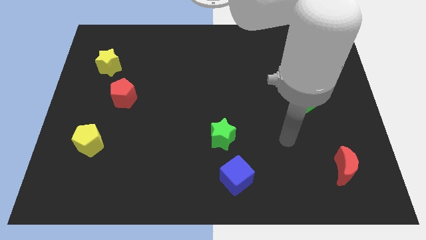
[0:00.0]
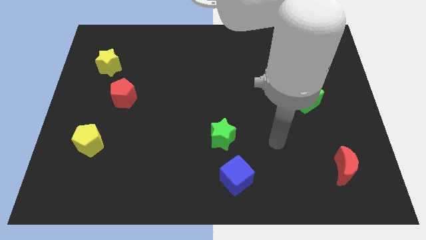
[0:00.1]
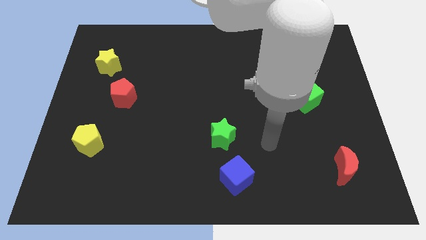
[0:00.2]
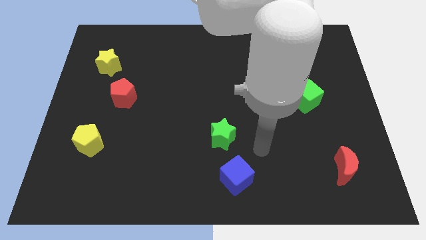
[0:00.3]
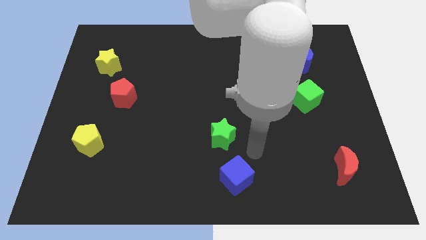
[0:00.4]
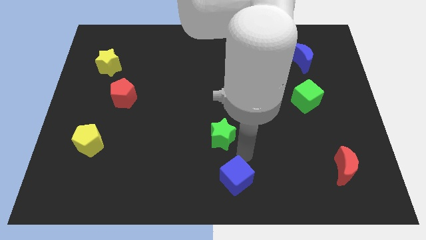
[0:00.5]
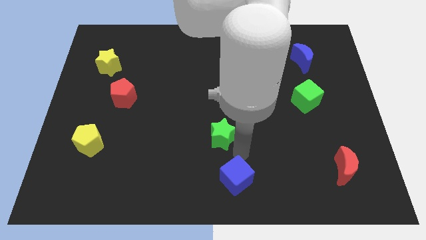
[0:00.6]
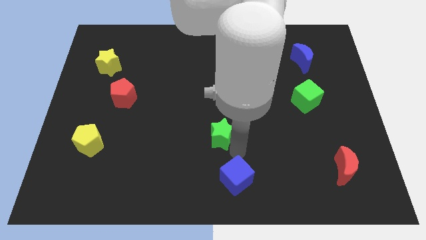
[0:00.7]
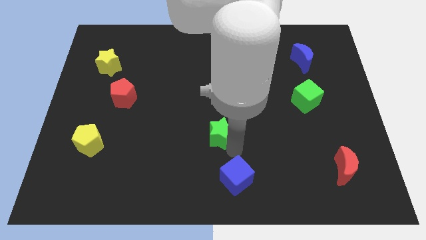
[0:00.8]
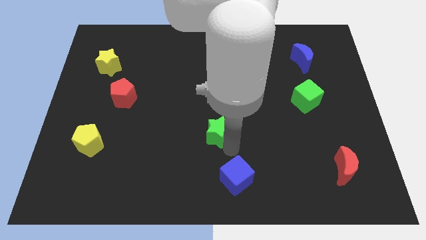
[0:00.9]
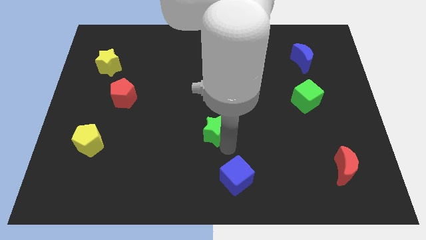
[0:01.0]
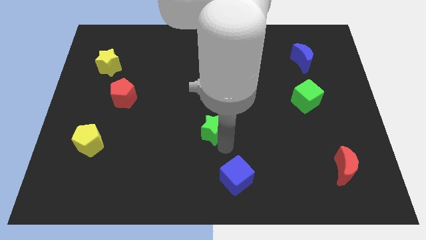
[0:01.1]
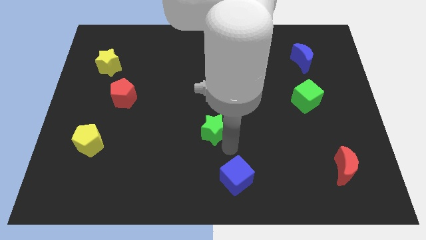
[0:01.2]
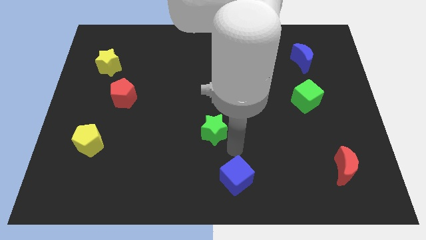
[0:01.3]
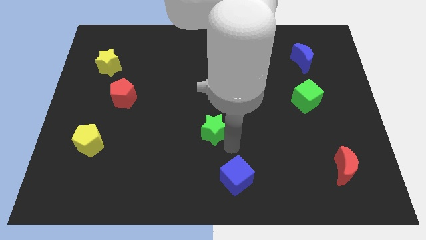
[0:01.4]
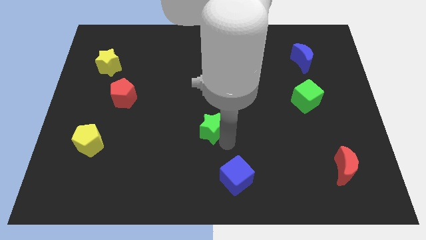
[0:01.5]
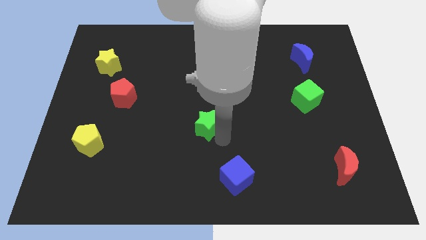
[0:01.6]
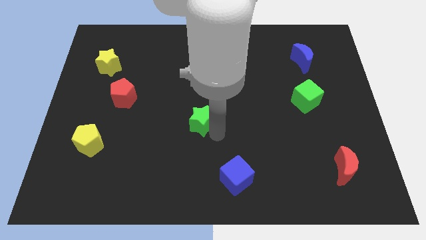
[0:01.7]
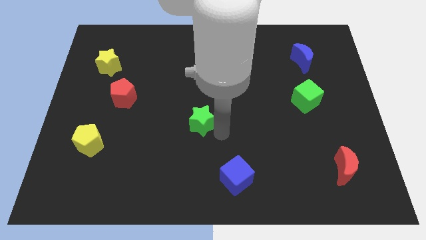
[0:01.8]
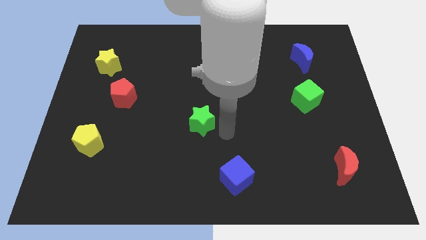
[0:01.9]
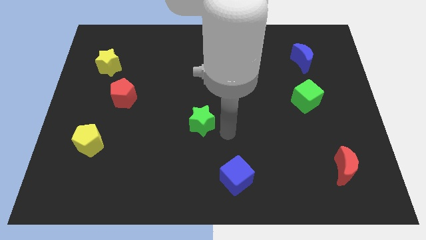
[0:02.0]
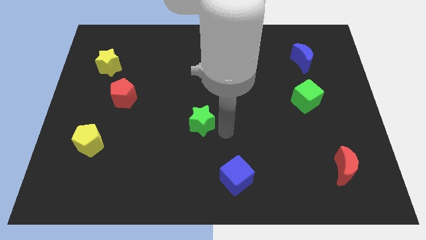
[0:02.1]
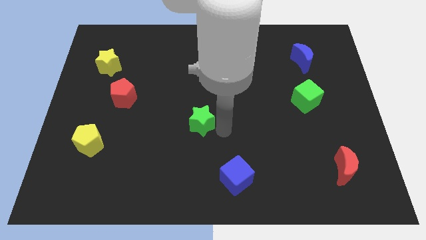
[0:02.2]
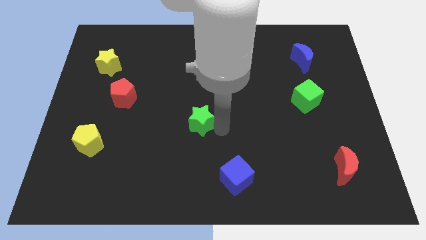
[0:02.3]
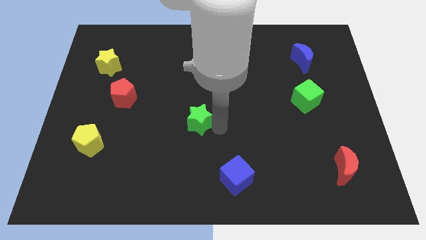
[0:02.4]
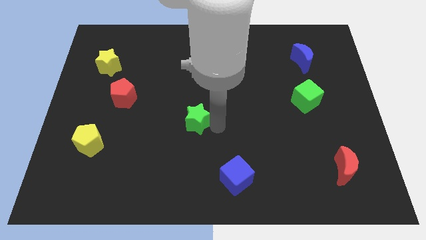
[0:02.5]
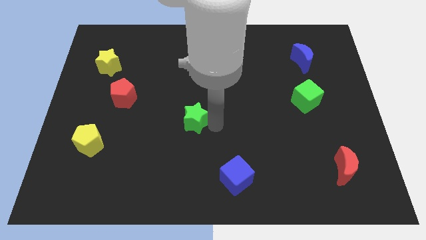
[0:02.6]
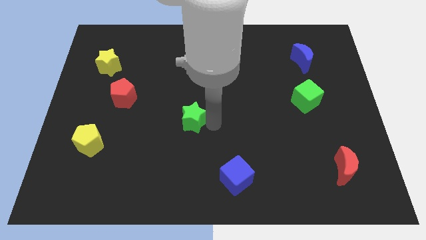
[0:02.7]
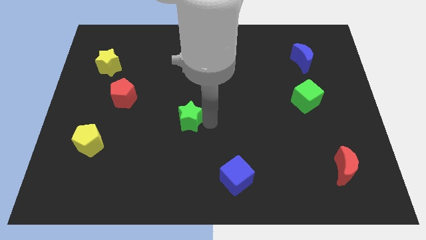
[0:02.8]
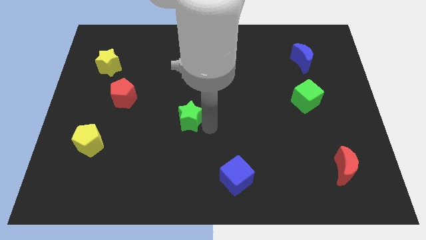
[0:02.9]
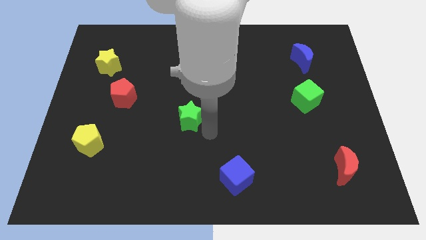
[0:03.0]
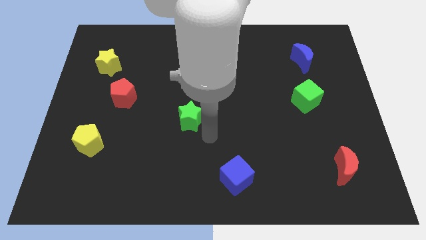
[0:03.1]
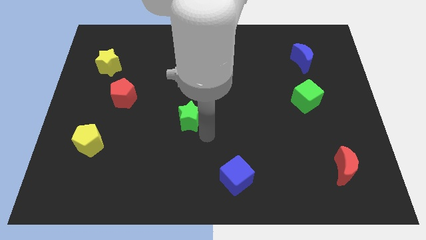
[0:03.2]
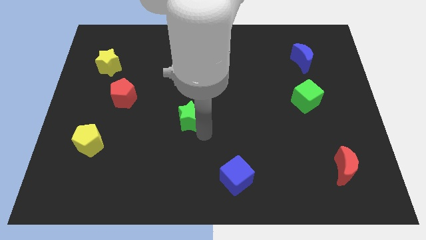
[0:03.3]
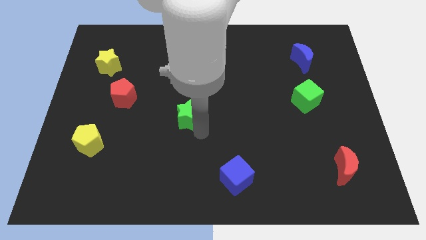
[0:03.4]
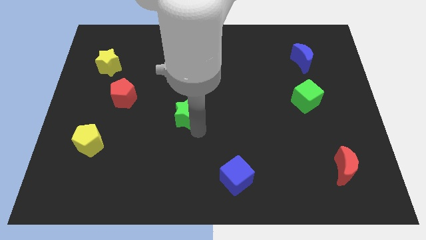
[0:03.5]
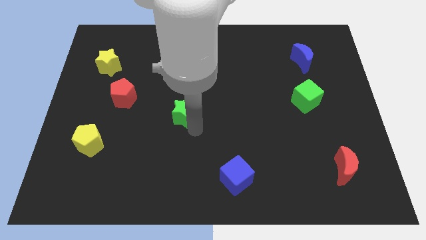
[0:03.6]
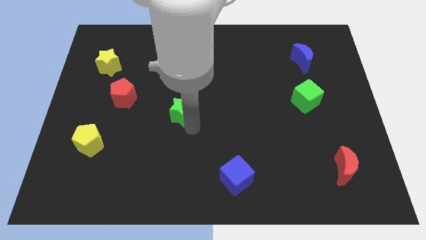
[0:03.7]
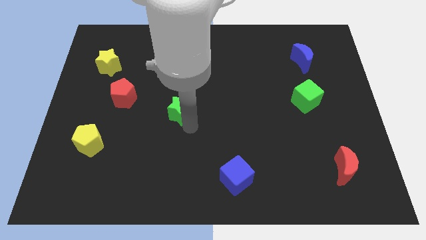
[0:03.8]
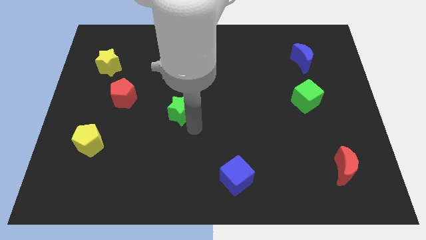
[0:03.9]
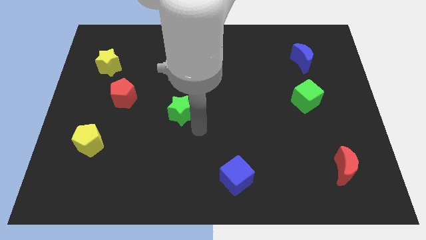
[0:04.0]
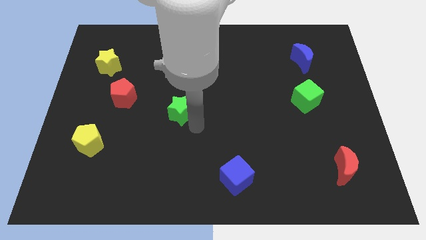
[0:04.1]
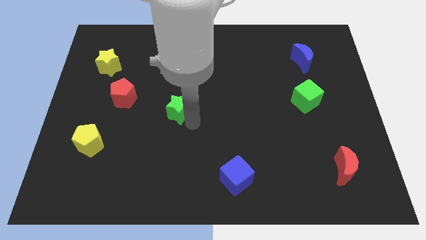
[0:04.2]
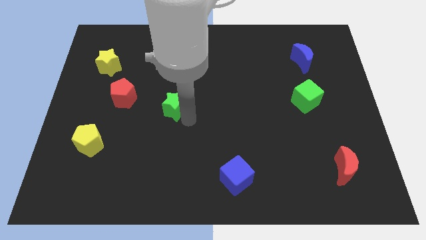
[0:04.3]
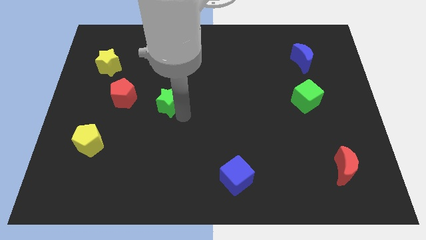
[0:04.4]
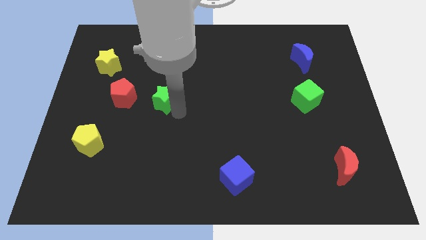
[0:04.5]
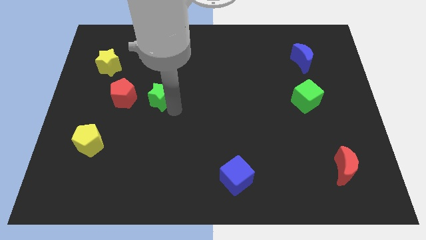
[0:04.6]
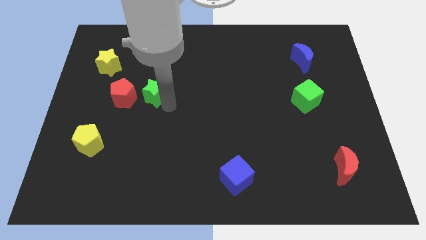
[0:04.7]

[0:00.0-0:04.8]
put the green star to the top right side of the red pentagon

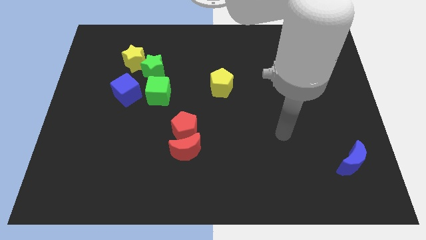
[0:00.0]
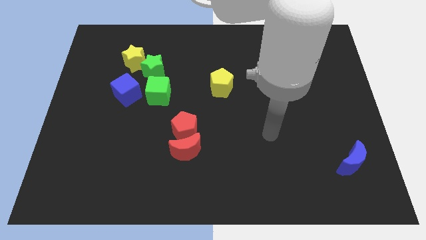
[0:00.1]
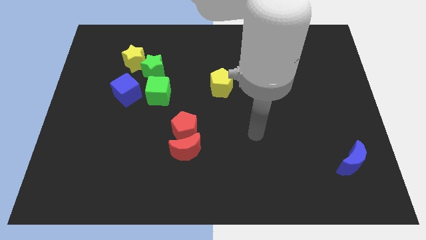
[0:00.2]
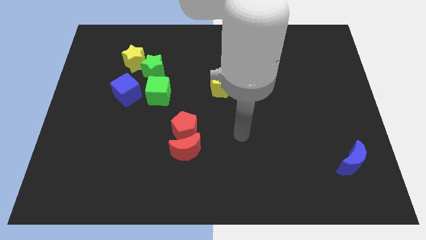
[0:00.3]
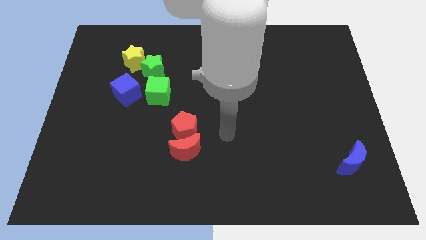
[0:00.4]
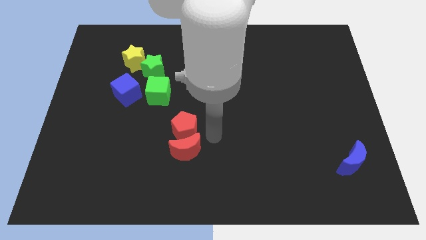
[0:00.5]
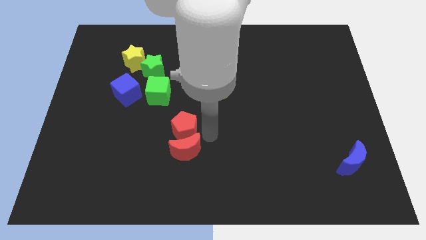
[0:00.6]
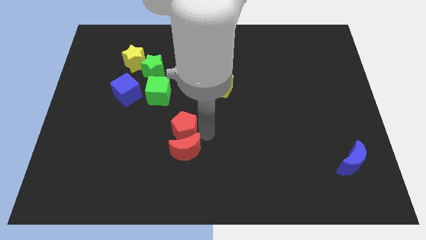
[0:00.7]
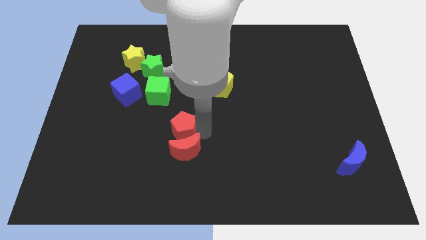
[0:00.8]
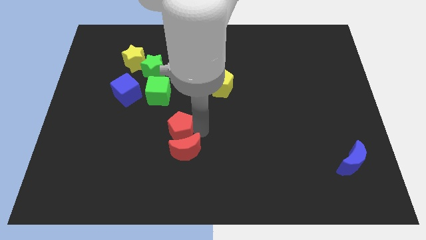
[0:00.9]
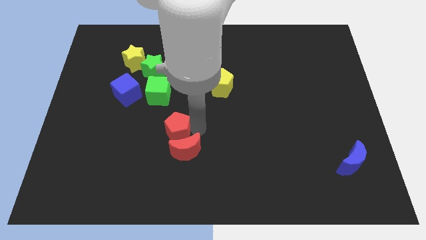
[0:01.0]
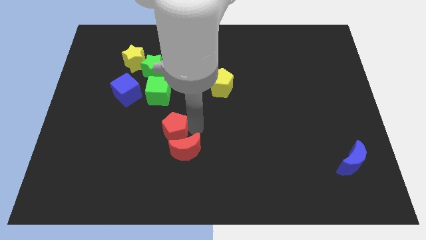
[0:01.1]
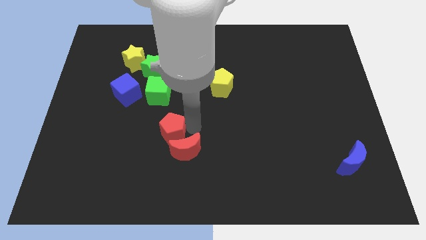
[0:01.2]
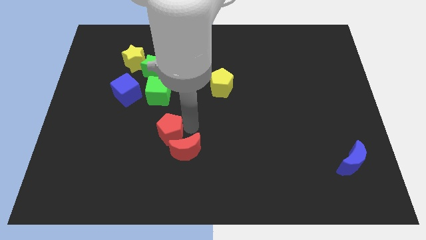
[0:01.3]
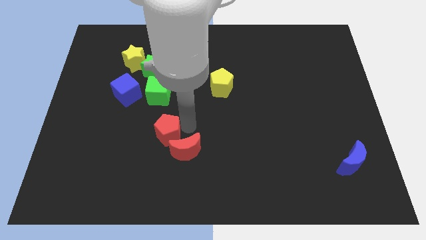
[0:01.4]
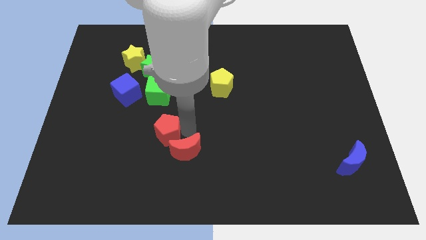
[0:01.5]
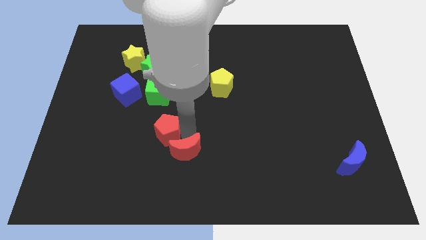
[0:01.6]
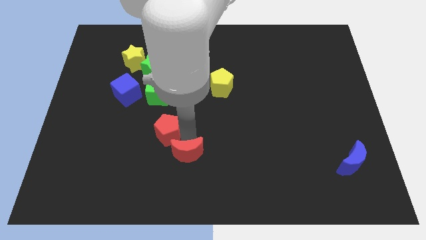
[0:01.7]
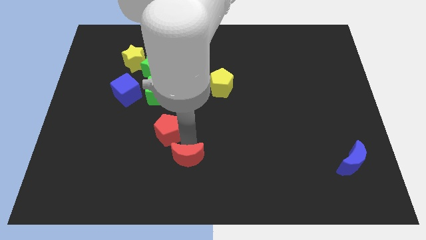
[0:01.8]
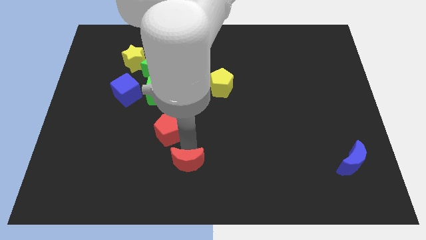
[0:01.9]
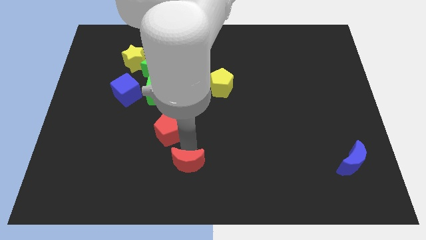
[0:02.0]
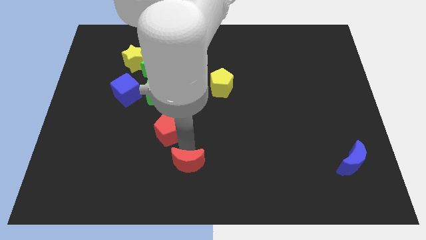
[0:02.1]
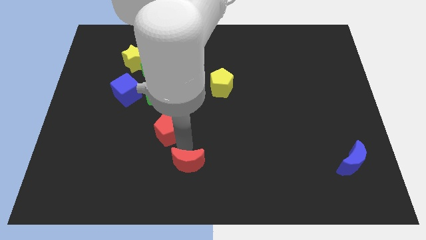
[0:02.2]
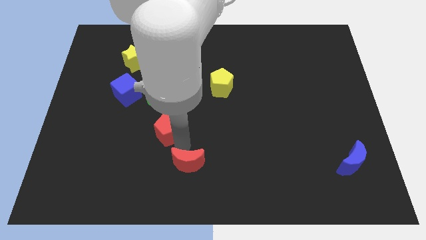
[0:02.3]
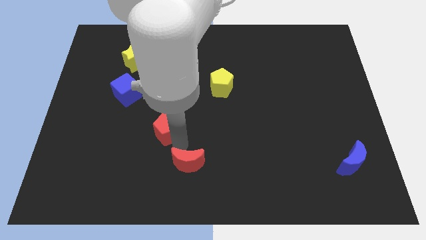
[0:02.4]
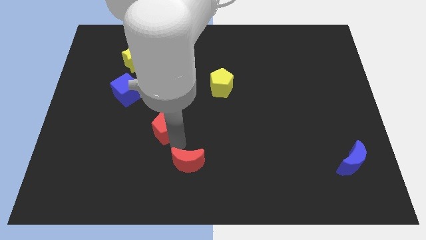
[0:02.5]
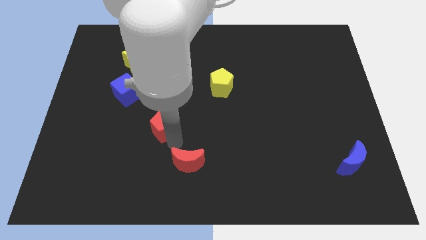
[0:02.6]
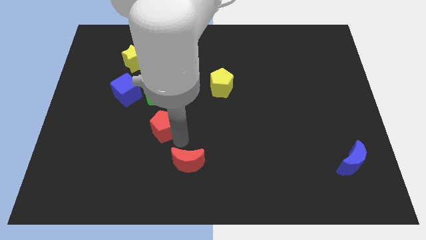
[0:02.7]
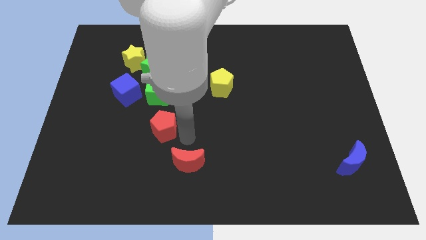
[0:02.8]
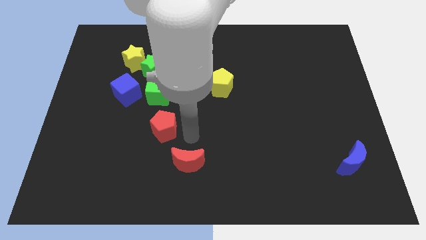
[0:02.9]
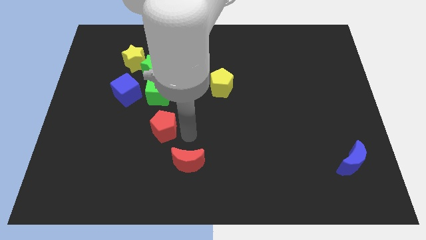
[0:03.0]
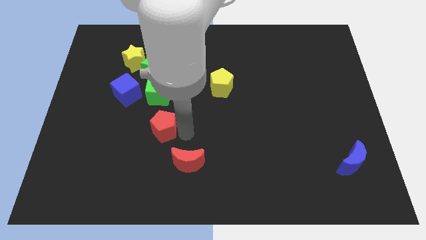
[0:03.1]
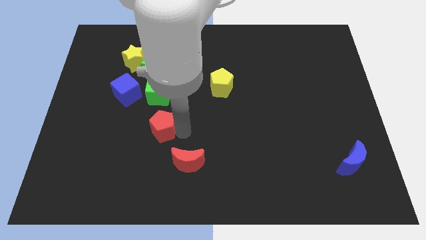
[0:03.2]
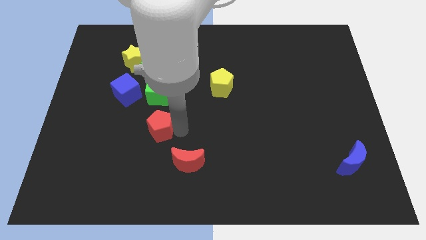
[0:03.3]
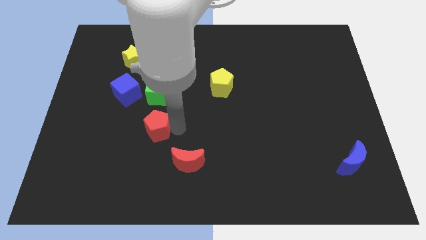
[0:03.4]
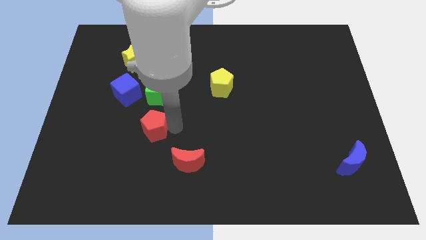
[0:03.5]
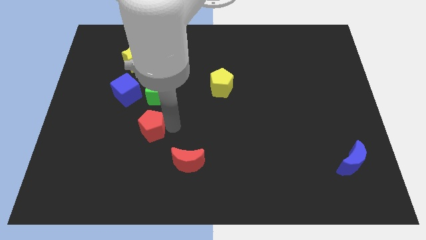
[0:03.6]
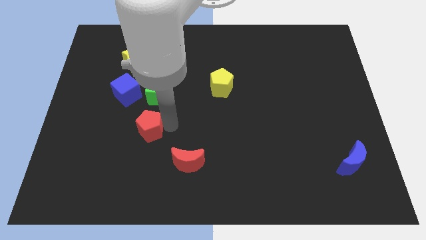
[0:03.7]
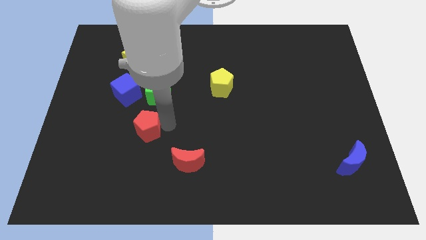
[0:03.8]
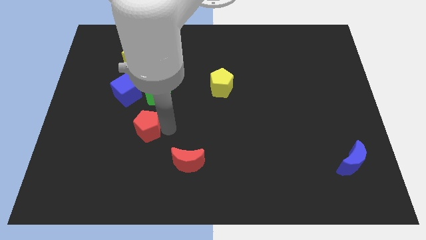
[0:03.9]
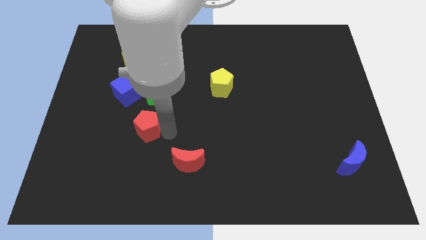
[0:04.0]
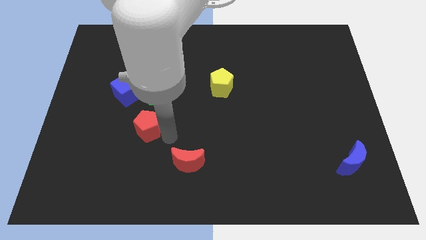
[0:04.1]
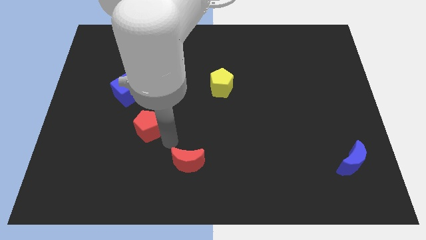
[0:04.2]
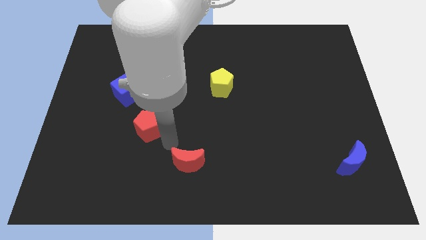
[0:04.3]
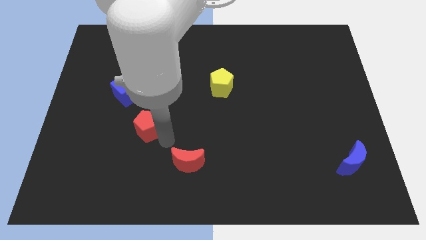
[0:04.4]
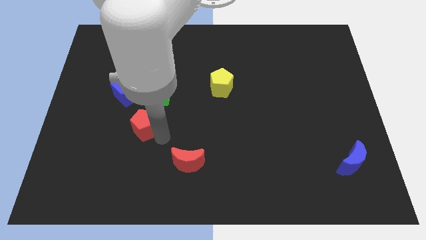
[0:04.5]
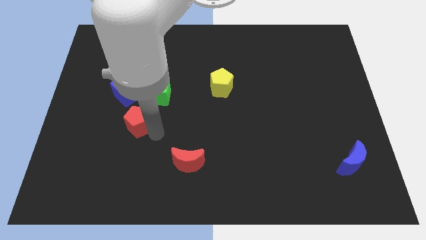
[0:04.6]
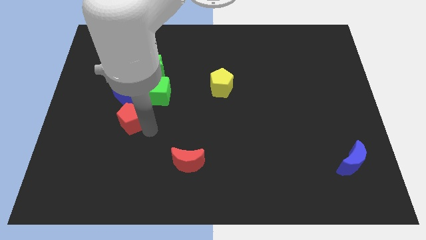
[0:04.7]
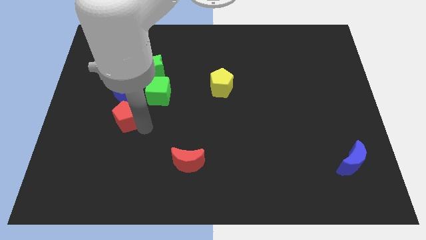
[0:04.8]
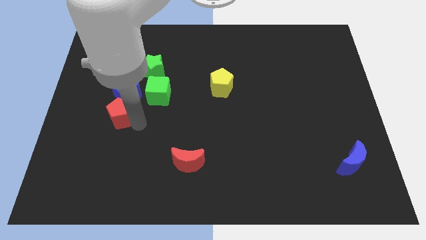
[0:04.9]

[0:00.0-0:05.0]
push the red pentagon to the bottom left of the blue cube
